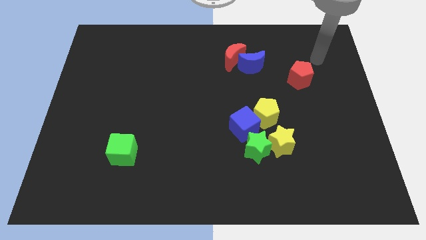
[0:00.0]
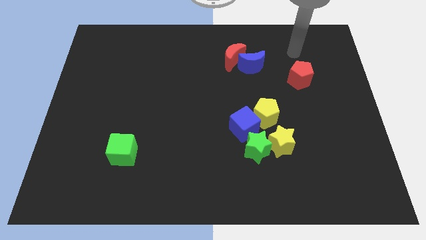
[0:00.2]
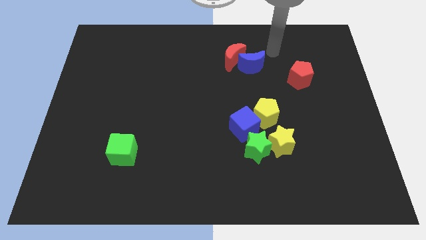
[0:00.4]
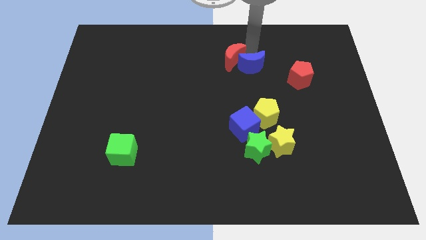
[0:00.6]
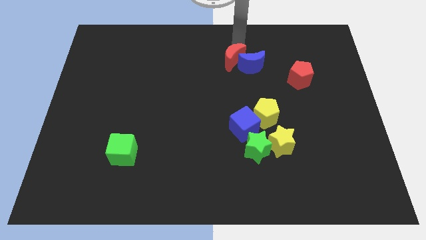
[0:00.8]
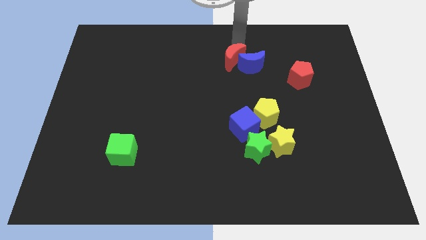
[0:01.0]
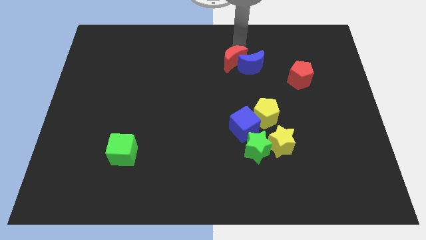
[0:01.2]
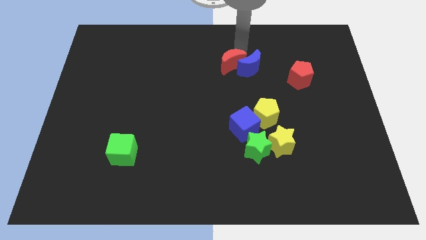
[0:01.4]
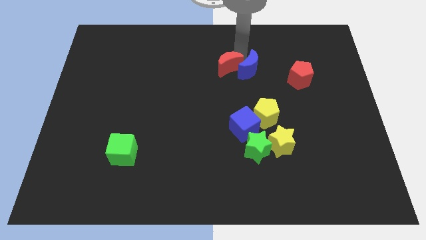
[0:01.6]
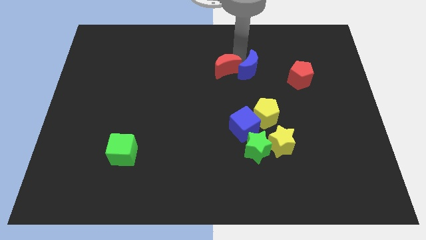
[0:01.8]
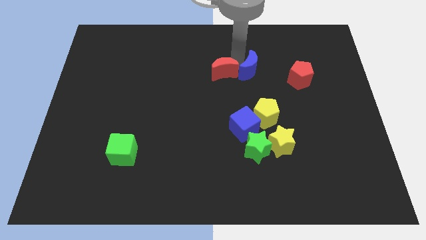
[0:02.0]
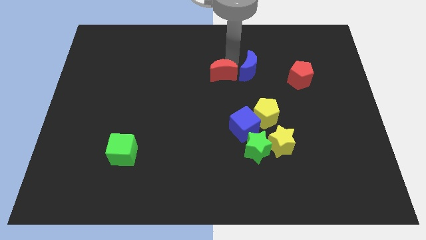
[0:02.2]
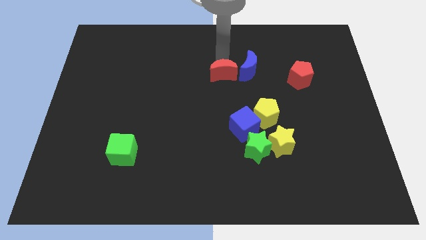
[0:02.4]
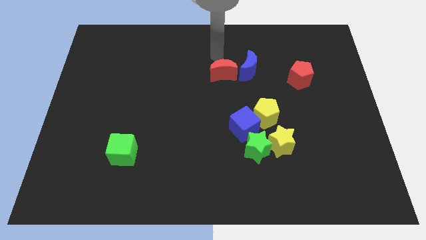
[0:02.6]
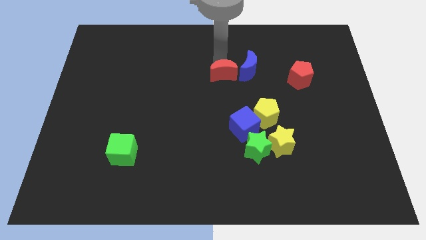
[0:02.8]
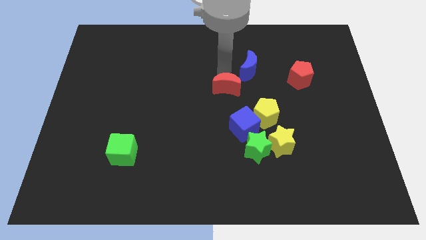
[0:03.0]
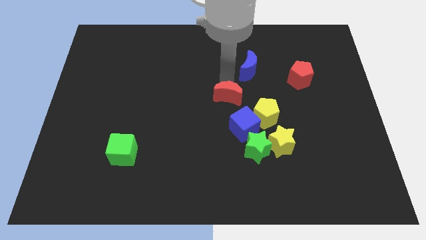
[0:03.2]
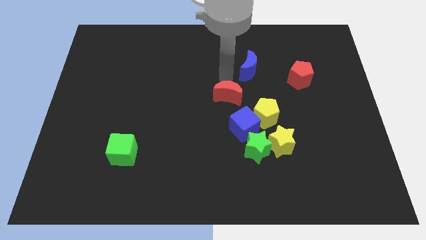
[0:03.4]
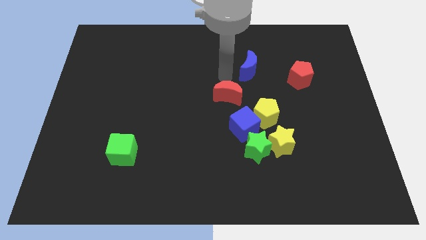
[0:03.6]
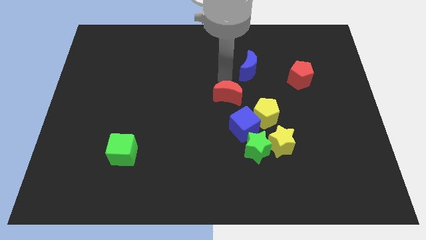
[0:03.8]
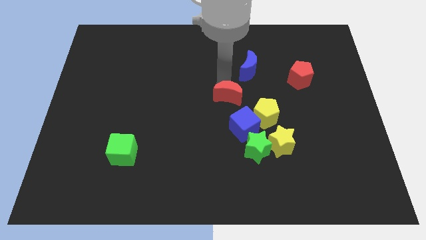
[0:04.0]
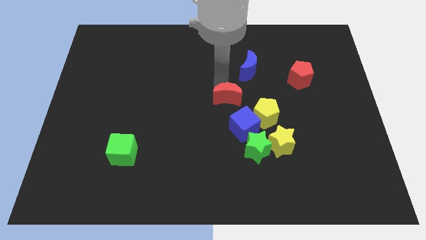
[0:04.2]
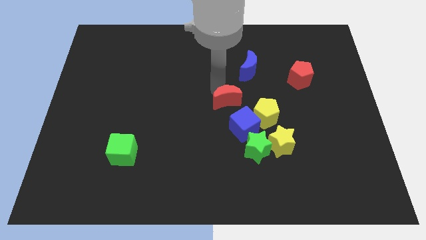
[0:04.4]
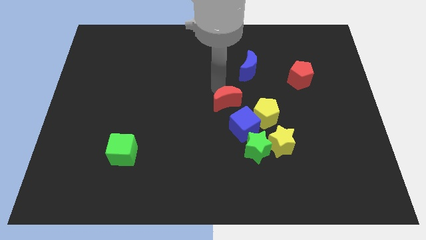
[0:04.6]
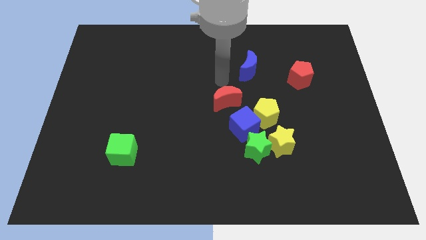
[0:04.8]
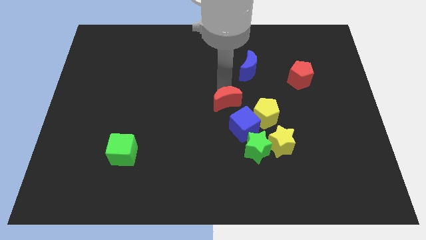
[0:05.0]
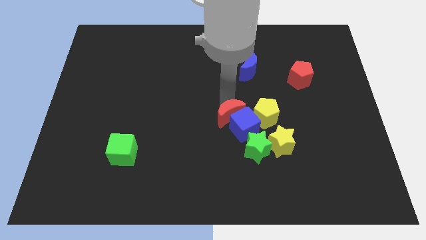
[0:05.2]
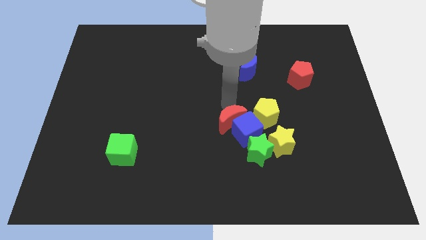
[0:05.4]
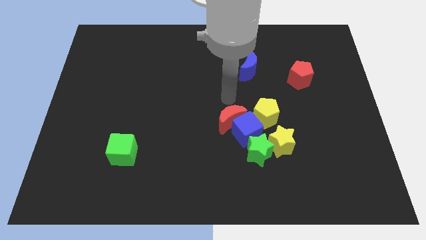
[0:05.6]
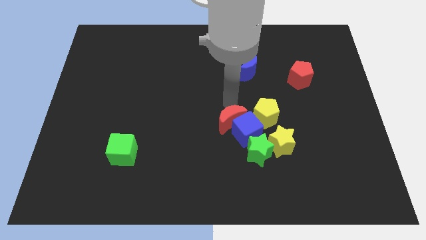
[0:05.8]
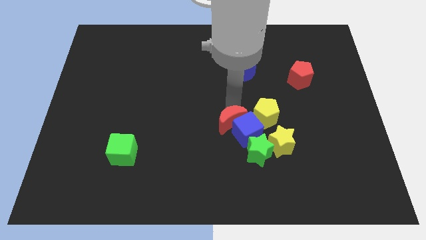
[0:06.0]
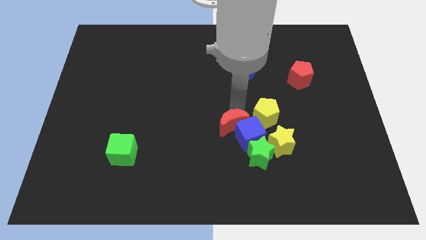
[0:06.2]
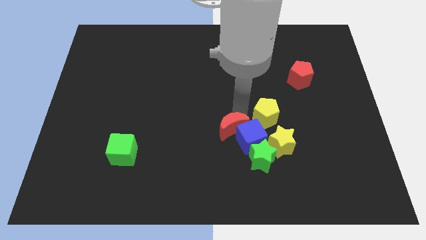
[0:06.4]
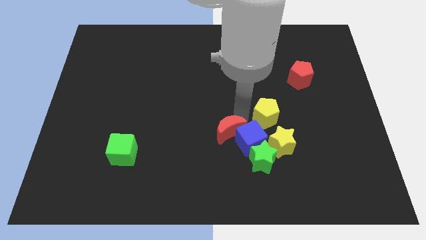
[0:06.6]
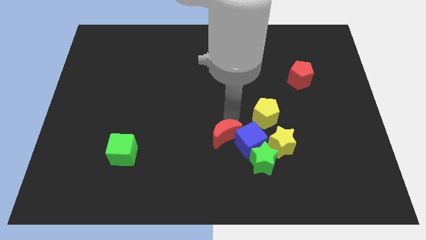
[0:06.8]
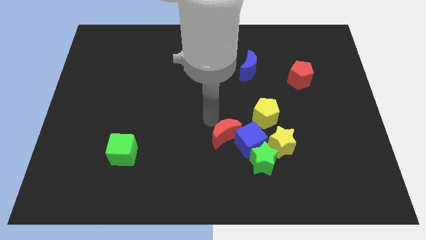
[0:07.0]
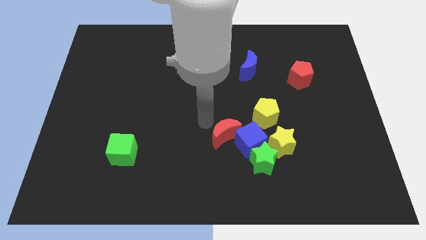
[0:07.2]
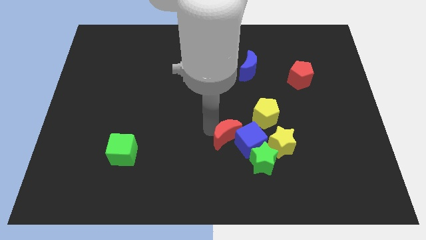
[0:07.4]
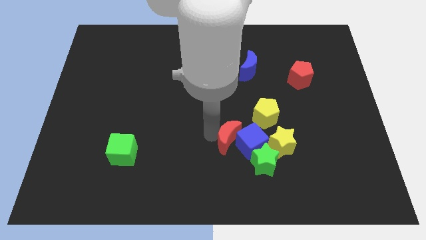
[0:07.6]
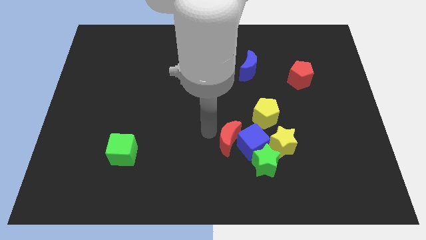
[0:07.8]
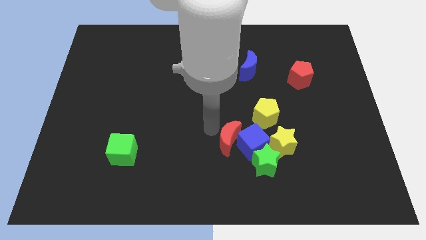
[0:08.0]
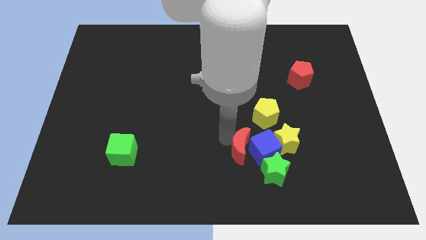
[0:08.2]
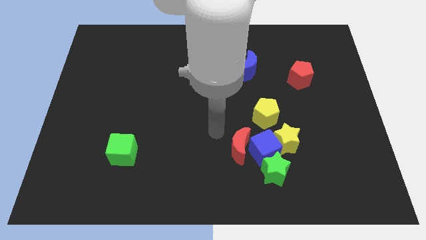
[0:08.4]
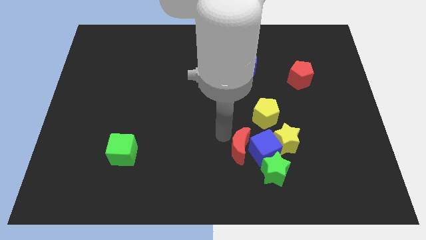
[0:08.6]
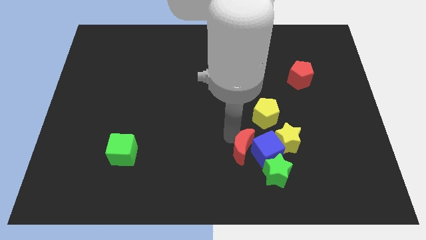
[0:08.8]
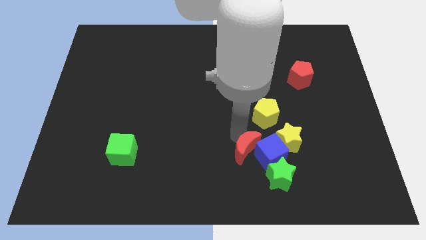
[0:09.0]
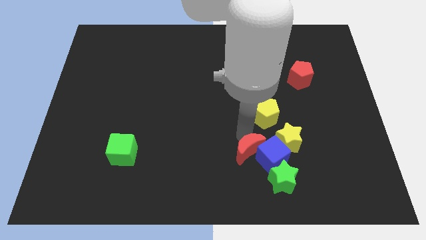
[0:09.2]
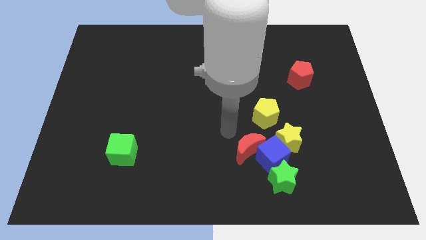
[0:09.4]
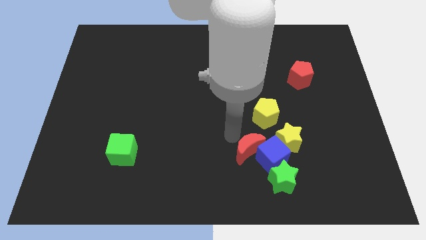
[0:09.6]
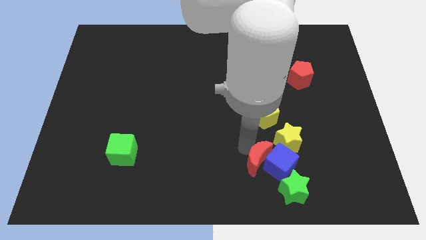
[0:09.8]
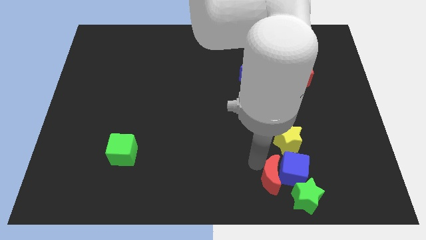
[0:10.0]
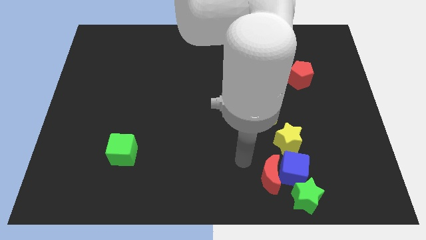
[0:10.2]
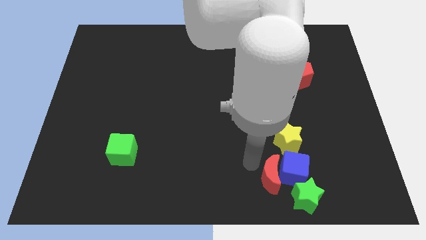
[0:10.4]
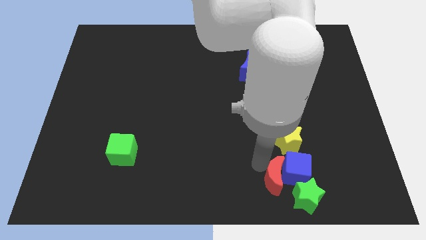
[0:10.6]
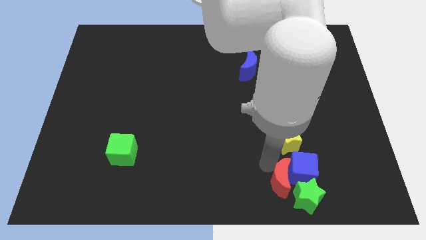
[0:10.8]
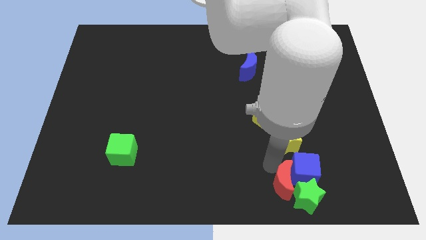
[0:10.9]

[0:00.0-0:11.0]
slide the red moon towards the green star

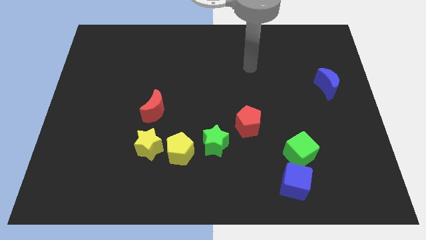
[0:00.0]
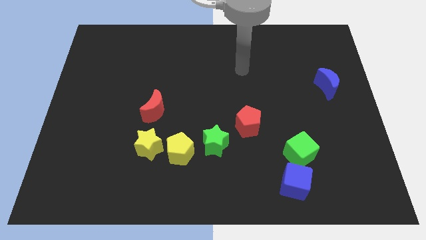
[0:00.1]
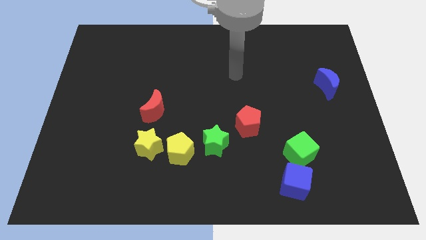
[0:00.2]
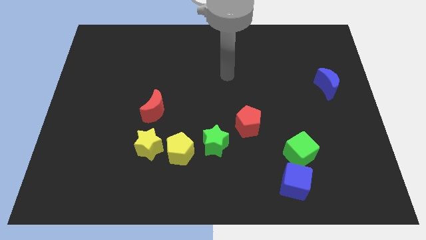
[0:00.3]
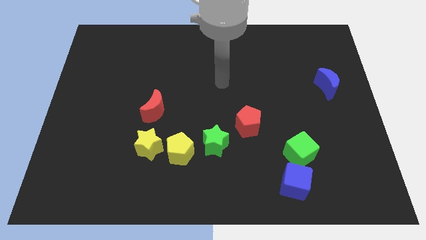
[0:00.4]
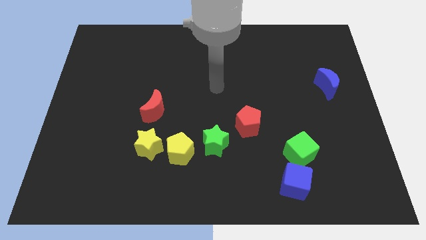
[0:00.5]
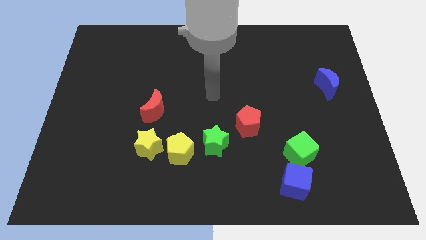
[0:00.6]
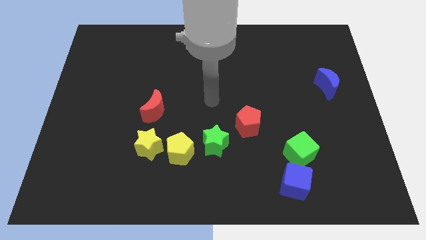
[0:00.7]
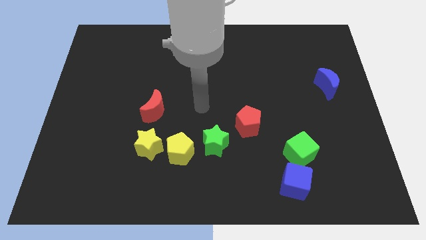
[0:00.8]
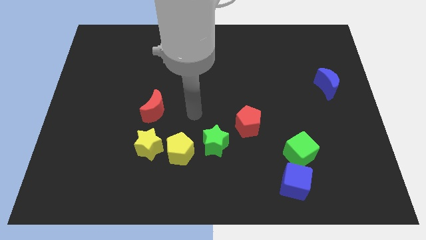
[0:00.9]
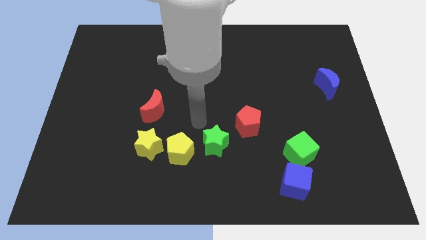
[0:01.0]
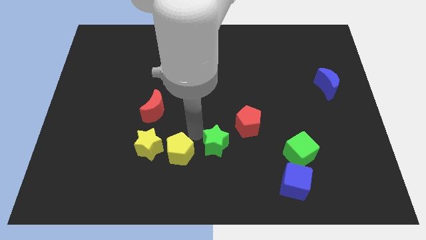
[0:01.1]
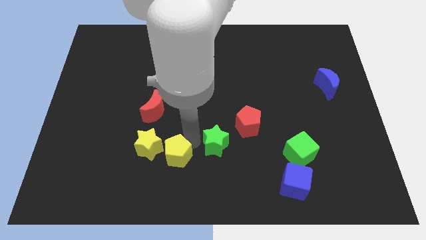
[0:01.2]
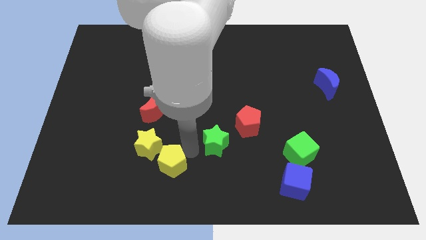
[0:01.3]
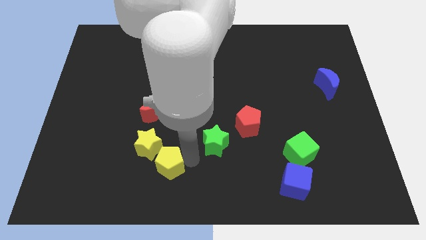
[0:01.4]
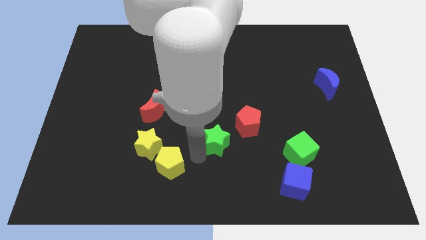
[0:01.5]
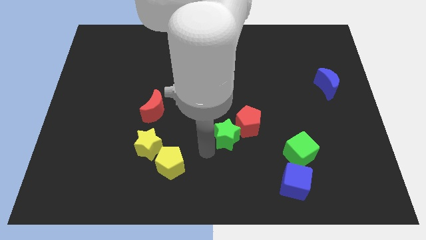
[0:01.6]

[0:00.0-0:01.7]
move the green star to the red pentagon
